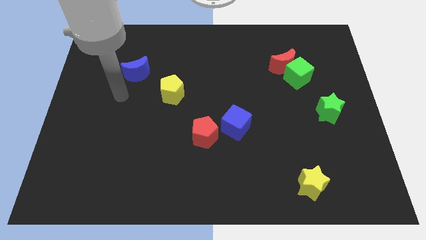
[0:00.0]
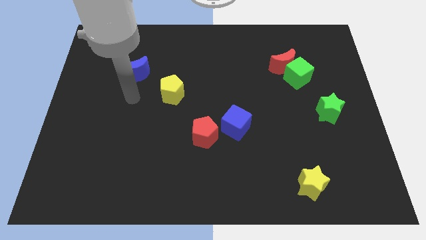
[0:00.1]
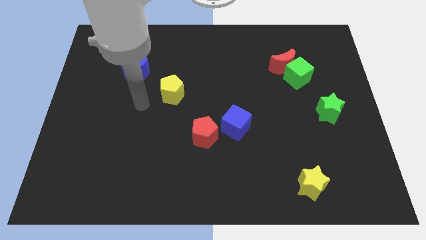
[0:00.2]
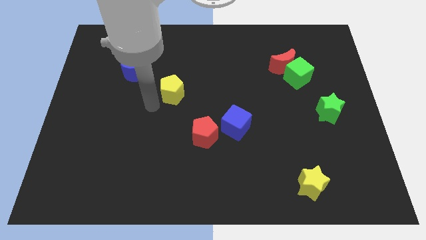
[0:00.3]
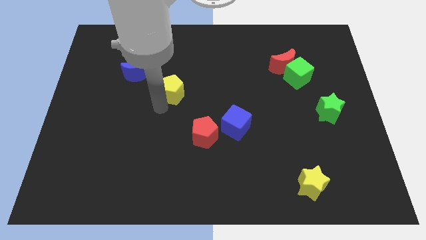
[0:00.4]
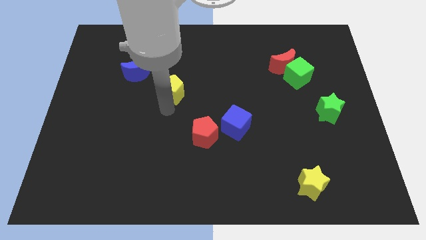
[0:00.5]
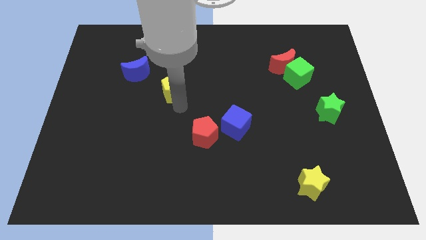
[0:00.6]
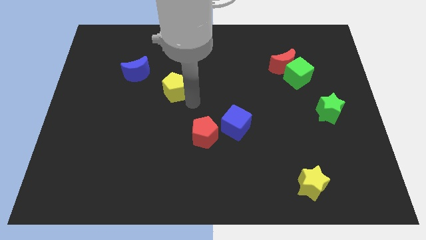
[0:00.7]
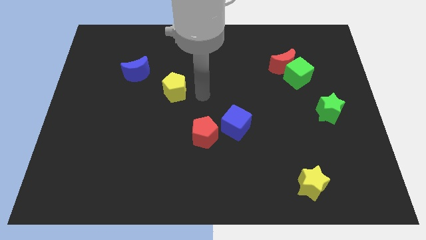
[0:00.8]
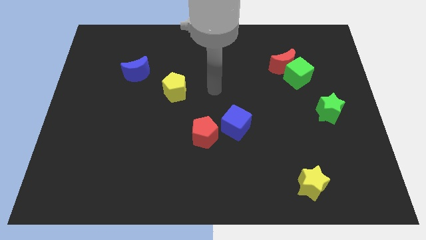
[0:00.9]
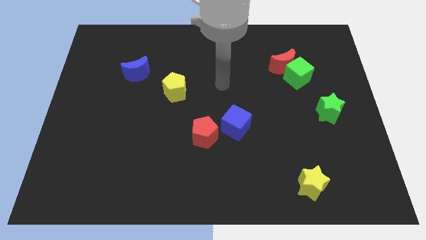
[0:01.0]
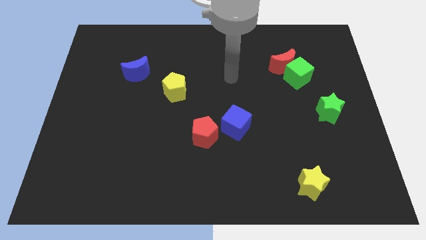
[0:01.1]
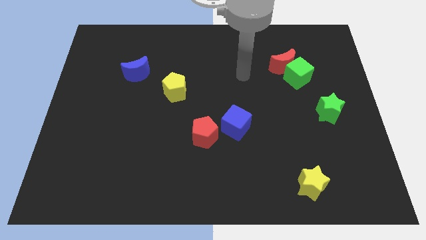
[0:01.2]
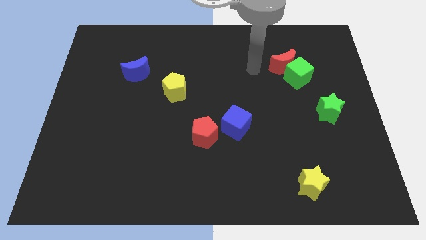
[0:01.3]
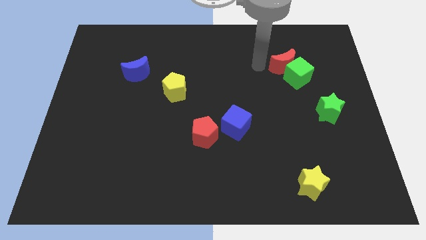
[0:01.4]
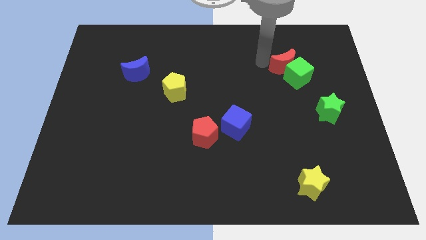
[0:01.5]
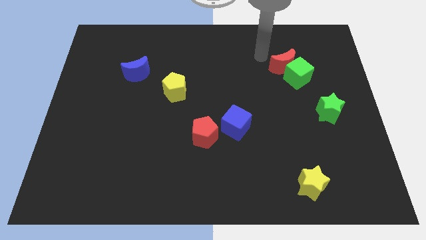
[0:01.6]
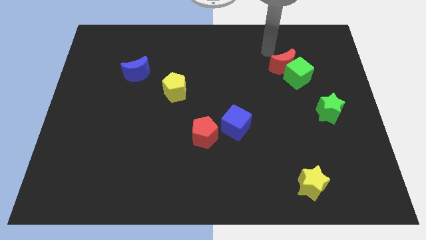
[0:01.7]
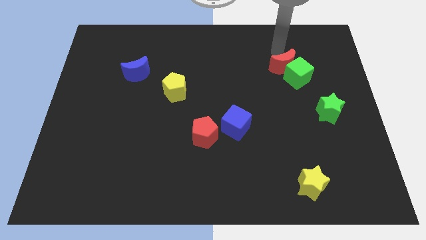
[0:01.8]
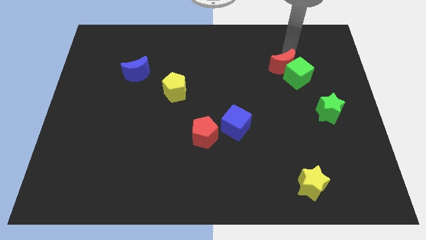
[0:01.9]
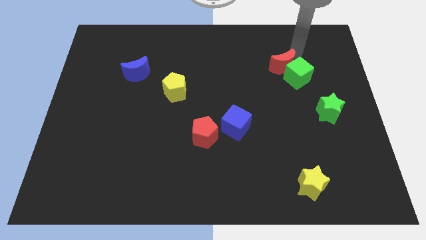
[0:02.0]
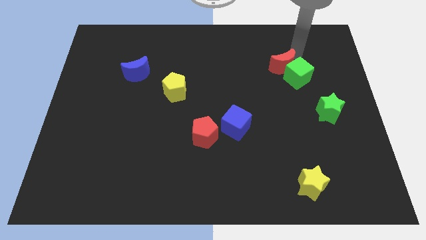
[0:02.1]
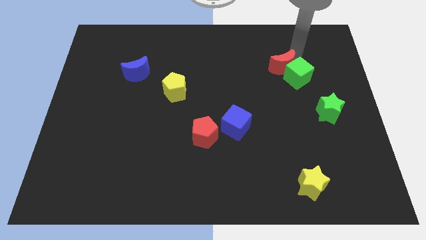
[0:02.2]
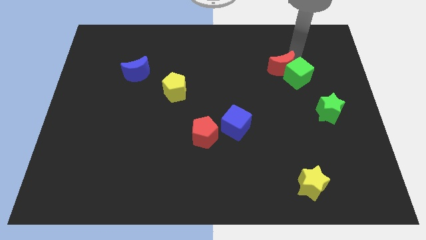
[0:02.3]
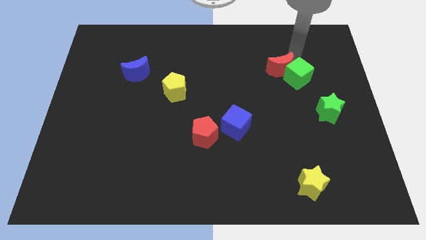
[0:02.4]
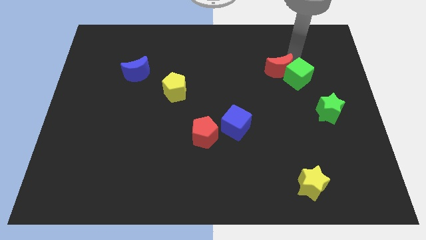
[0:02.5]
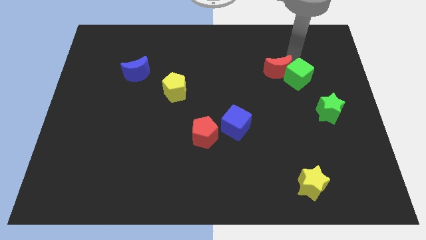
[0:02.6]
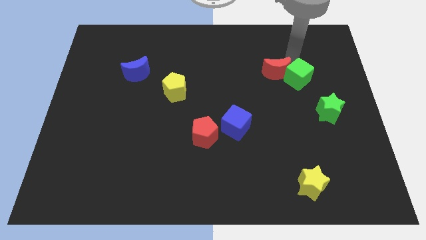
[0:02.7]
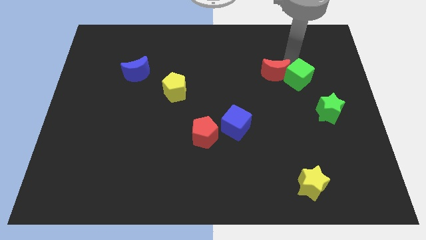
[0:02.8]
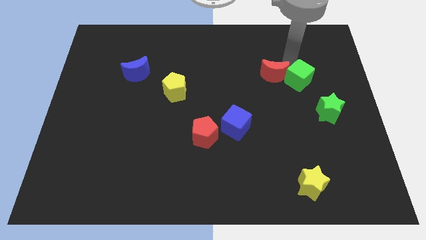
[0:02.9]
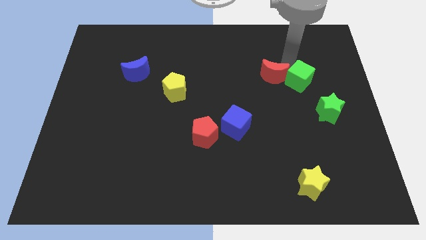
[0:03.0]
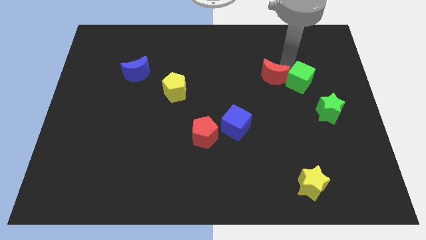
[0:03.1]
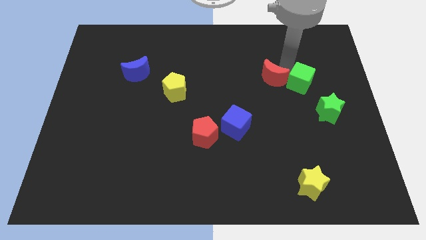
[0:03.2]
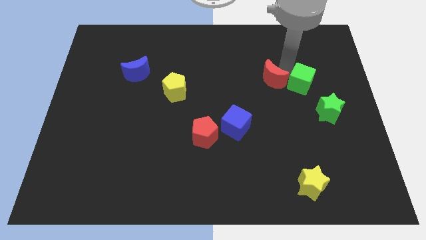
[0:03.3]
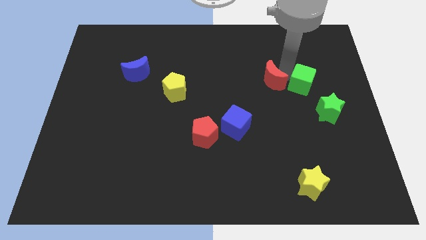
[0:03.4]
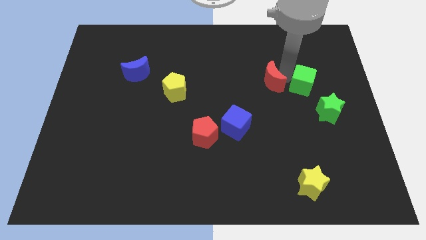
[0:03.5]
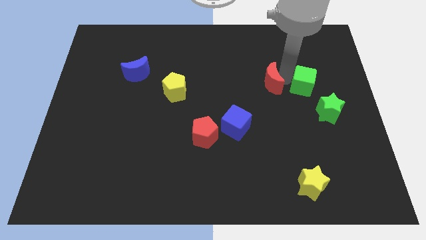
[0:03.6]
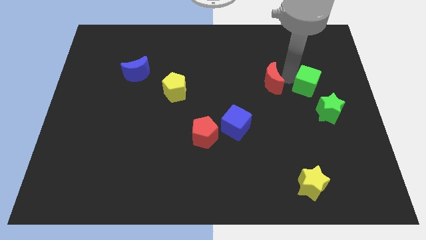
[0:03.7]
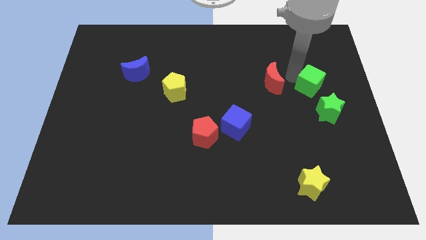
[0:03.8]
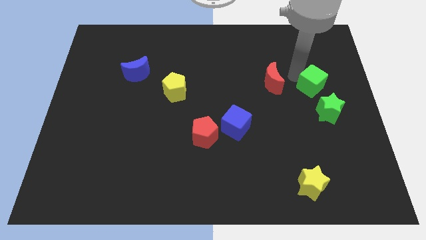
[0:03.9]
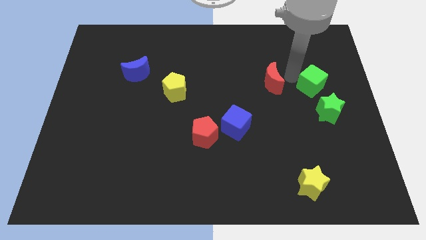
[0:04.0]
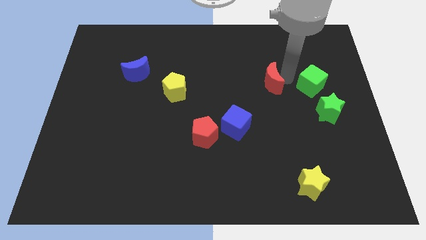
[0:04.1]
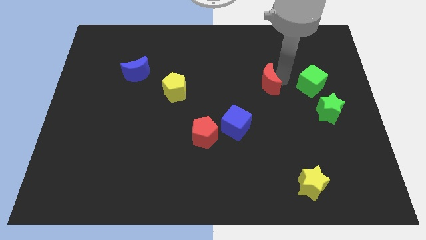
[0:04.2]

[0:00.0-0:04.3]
slide the red moon down and then left a bit

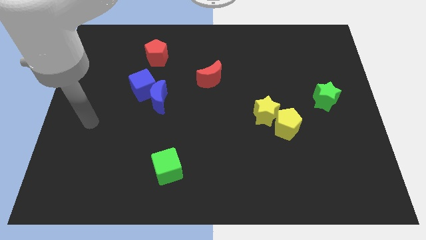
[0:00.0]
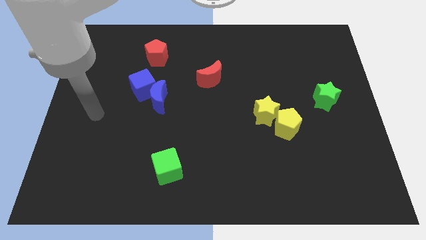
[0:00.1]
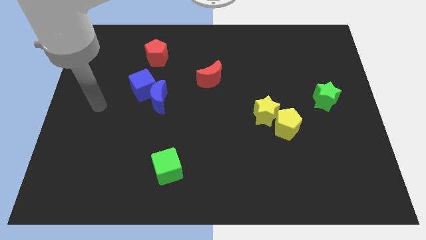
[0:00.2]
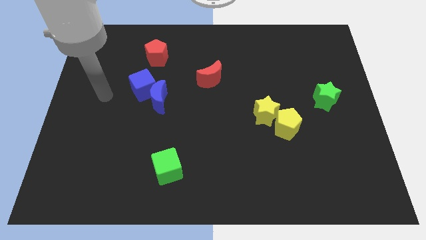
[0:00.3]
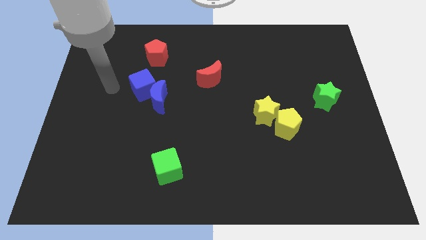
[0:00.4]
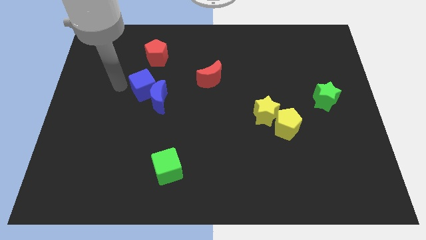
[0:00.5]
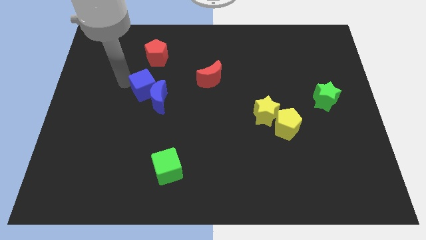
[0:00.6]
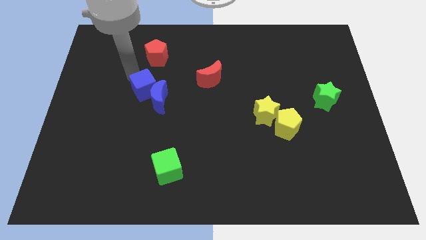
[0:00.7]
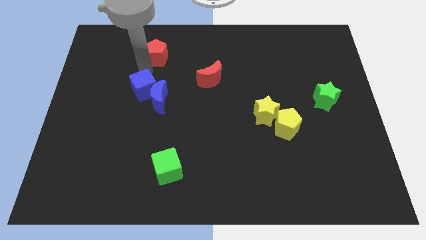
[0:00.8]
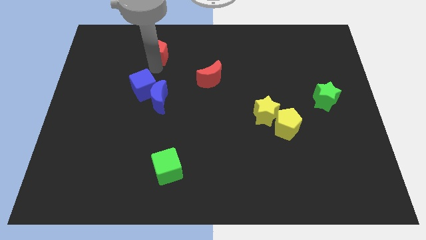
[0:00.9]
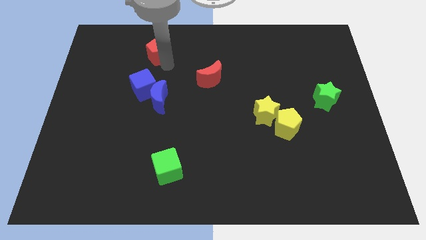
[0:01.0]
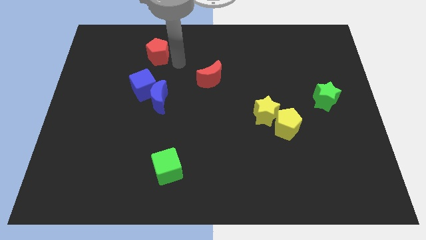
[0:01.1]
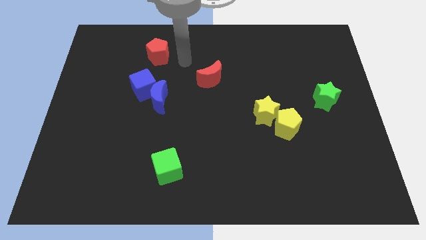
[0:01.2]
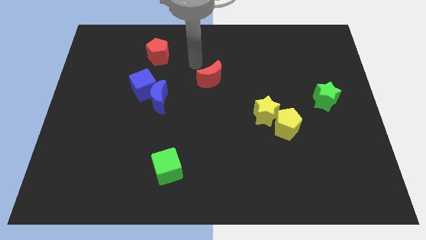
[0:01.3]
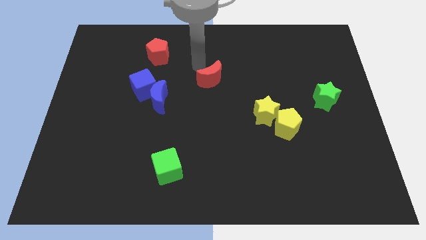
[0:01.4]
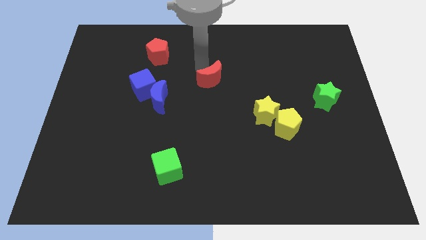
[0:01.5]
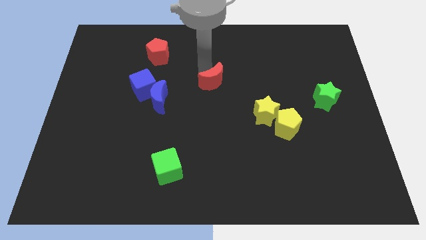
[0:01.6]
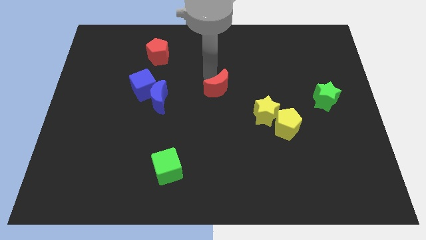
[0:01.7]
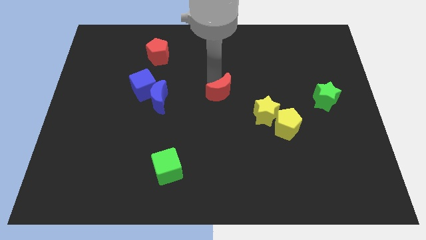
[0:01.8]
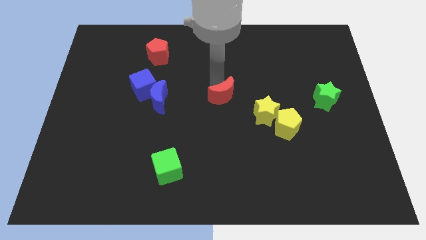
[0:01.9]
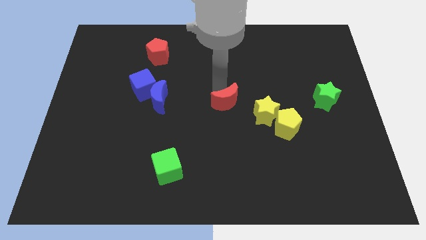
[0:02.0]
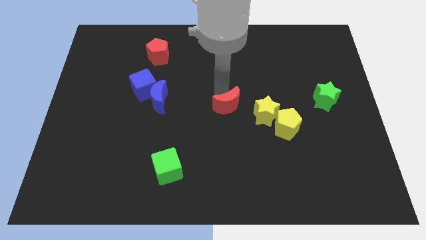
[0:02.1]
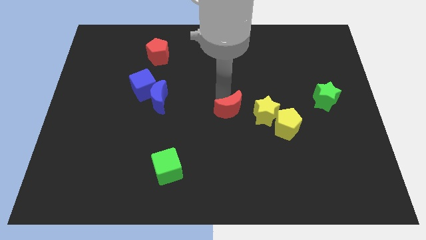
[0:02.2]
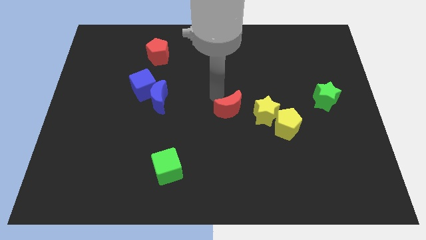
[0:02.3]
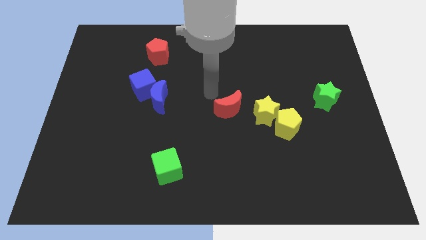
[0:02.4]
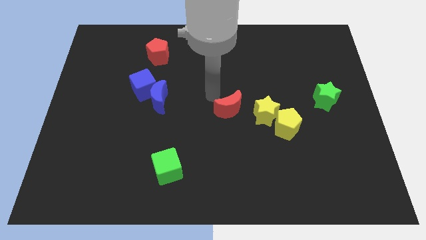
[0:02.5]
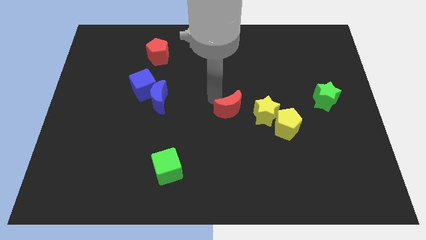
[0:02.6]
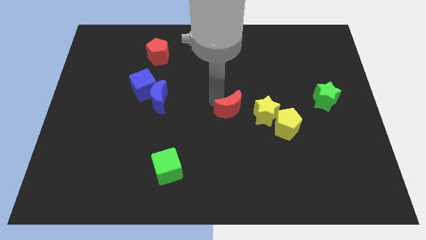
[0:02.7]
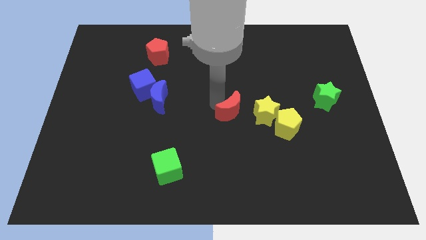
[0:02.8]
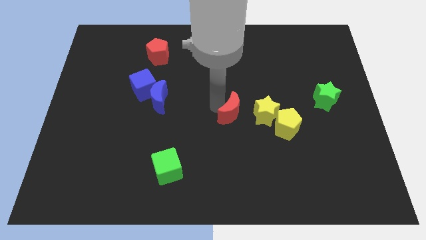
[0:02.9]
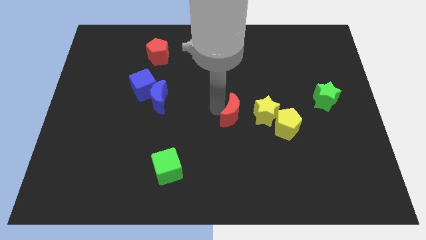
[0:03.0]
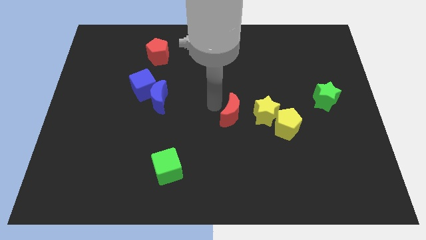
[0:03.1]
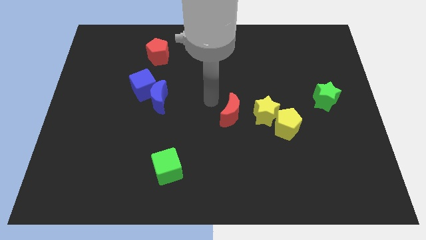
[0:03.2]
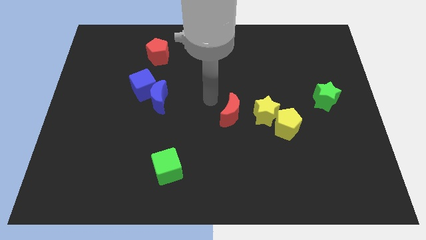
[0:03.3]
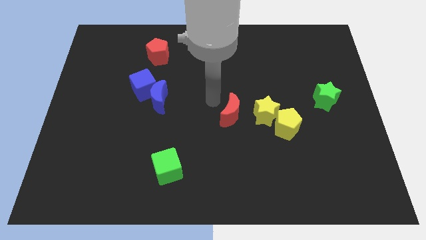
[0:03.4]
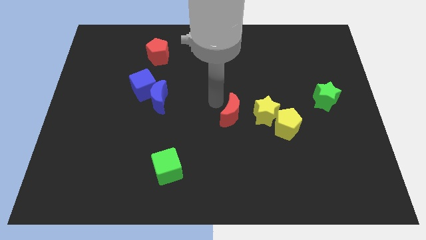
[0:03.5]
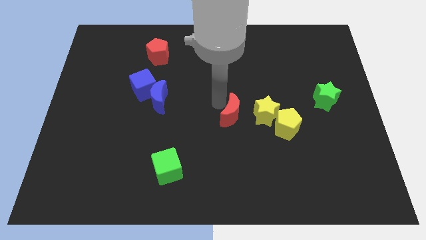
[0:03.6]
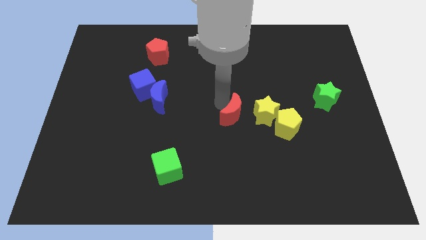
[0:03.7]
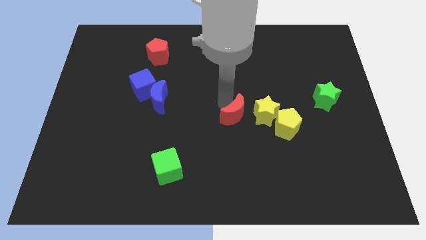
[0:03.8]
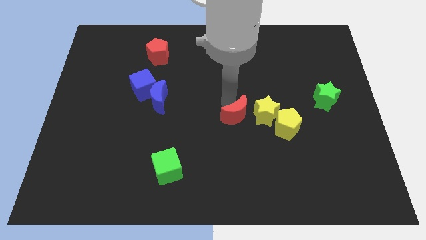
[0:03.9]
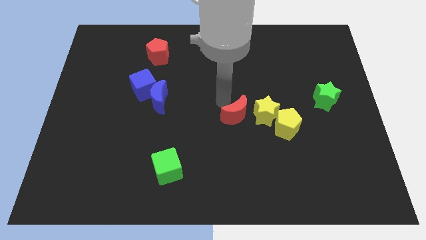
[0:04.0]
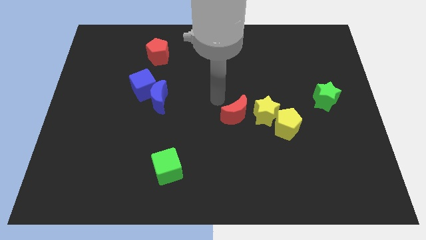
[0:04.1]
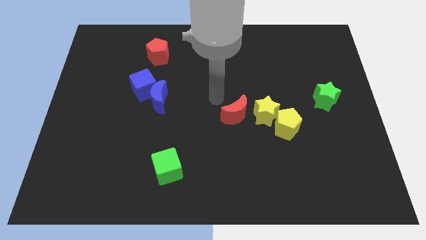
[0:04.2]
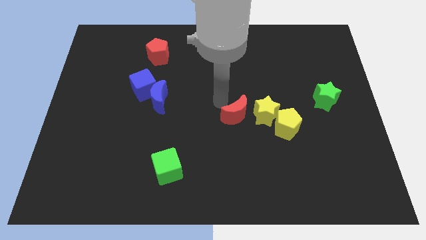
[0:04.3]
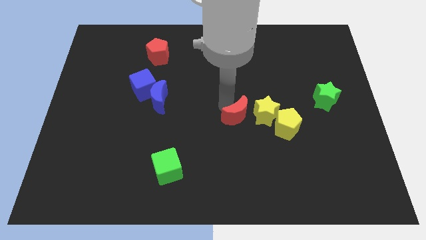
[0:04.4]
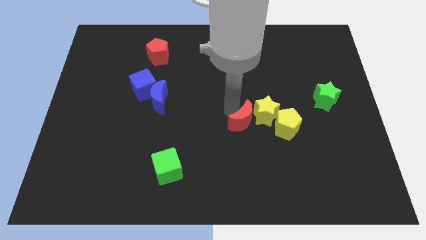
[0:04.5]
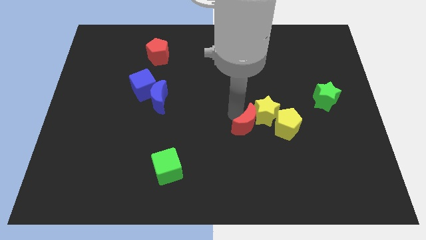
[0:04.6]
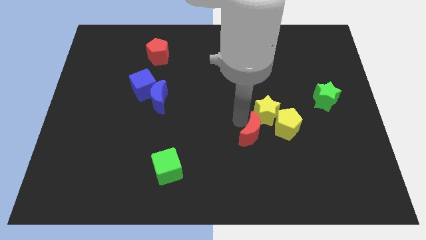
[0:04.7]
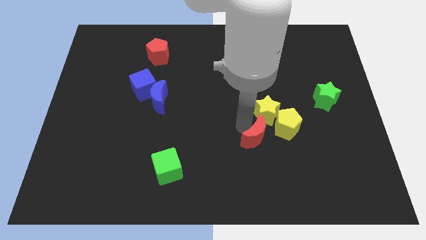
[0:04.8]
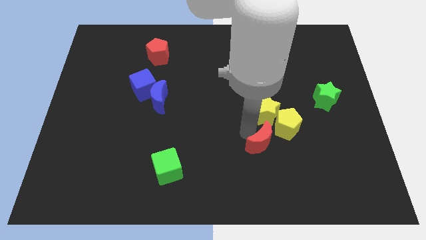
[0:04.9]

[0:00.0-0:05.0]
push the red moon diagonally downwards and right
